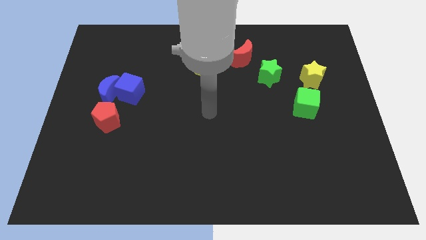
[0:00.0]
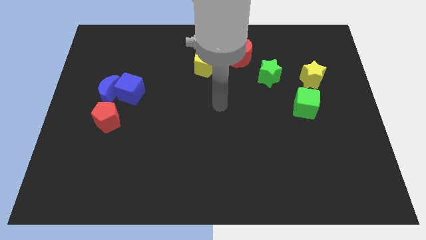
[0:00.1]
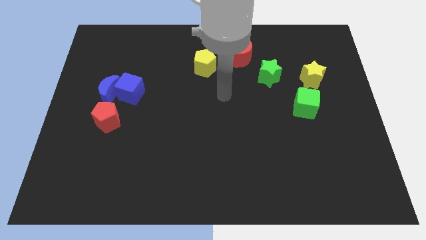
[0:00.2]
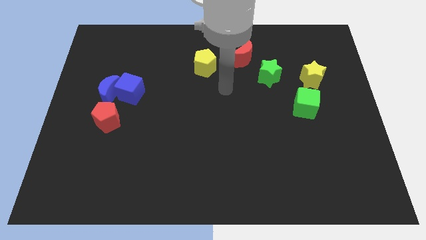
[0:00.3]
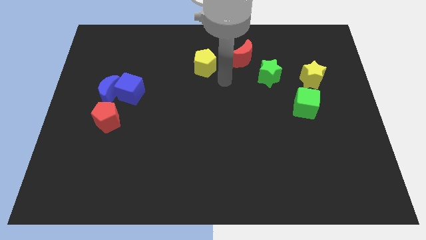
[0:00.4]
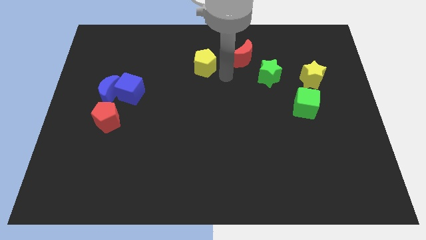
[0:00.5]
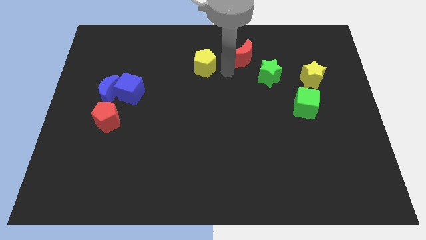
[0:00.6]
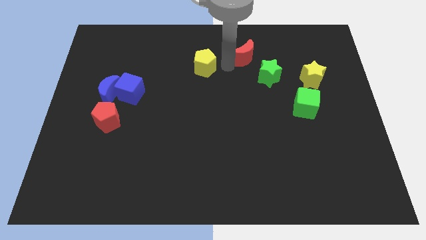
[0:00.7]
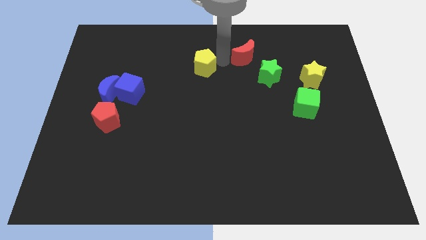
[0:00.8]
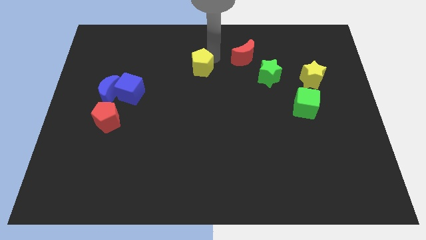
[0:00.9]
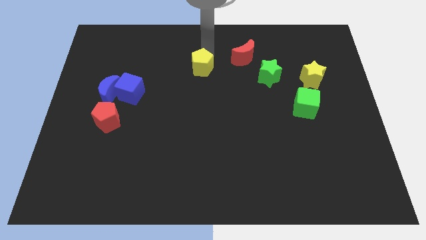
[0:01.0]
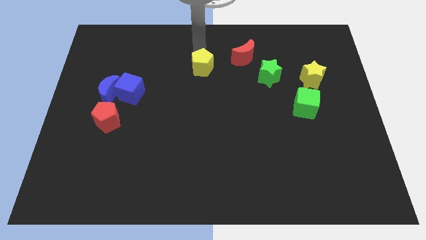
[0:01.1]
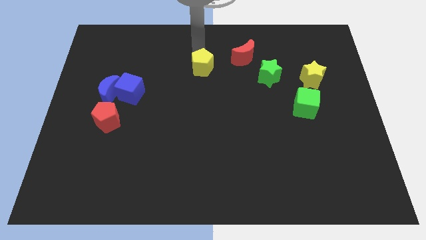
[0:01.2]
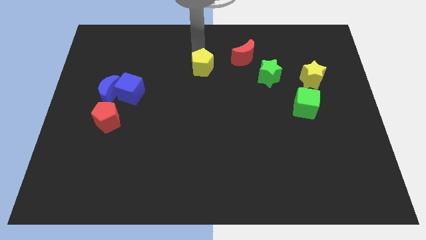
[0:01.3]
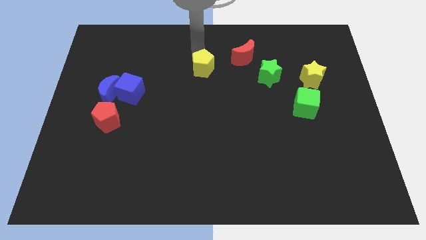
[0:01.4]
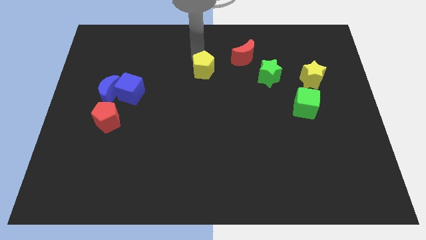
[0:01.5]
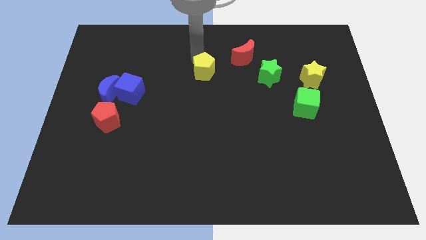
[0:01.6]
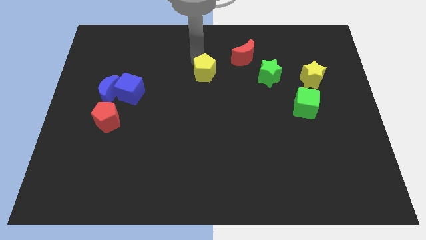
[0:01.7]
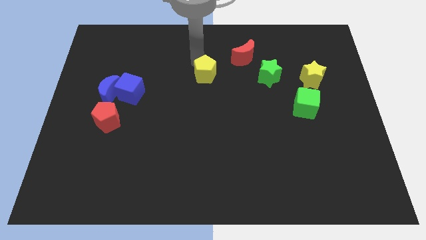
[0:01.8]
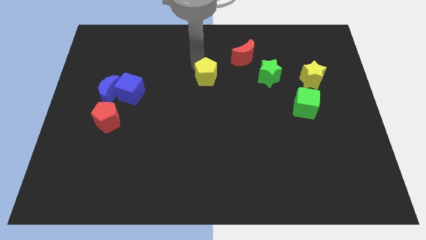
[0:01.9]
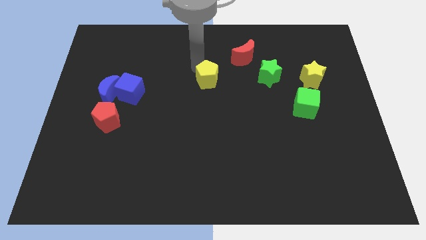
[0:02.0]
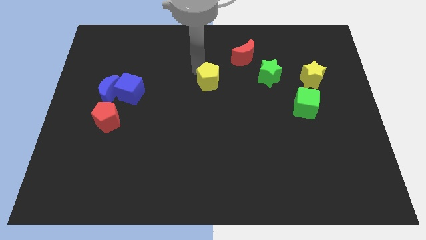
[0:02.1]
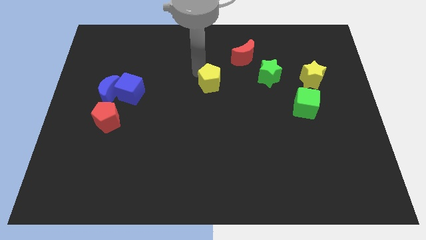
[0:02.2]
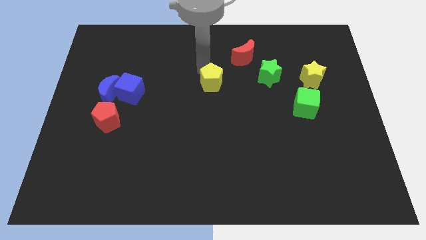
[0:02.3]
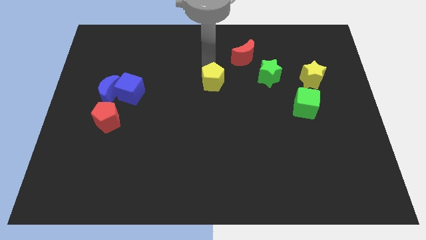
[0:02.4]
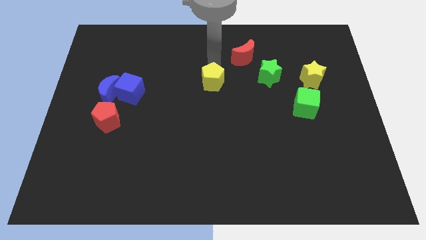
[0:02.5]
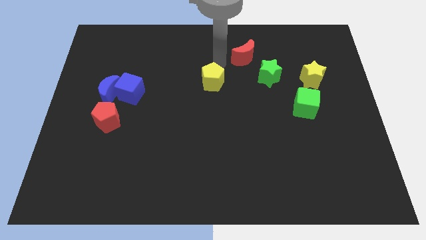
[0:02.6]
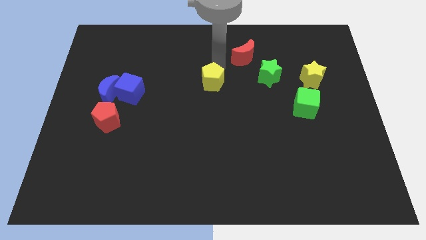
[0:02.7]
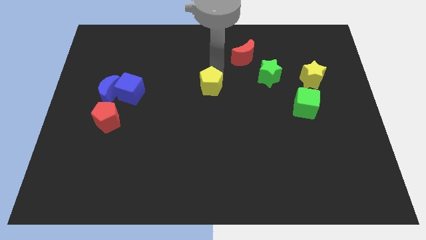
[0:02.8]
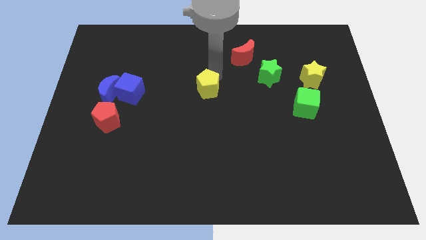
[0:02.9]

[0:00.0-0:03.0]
move the yellow pentagon downwards slightly

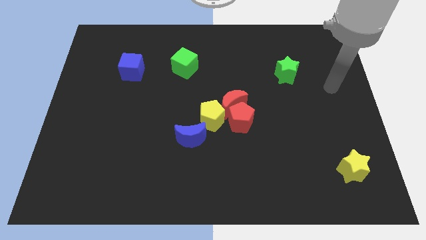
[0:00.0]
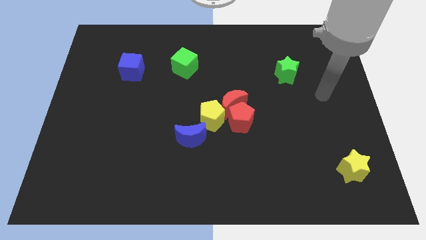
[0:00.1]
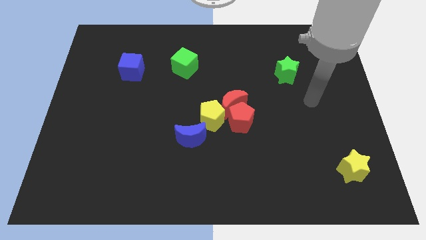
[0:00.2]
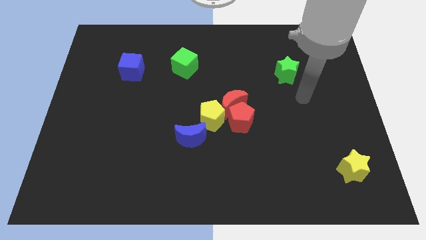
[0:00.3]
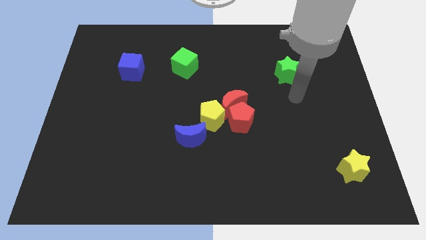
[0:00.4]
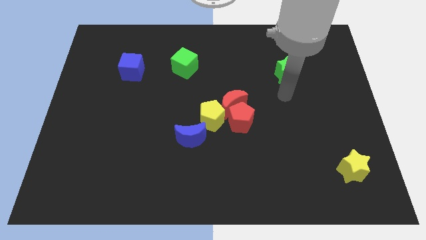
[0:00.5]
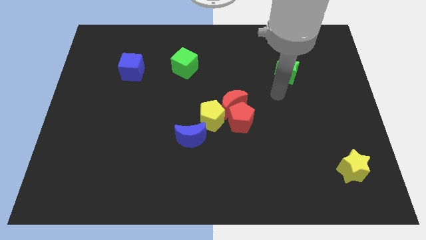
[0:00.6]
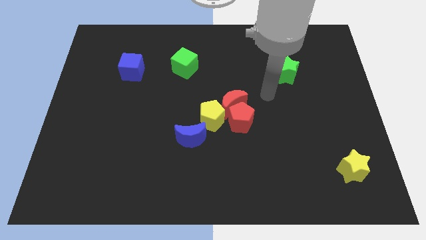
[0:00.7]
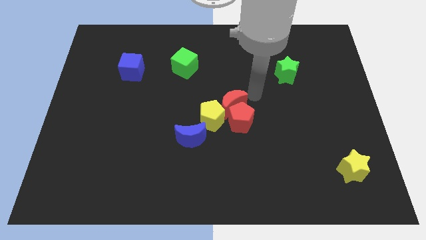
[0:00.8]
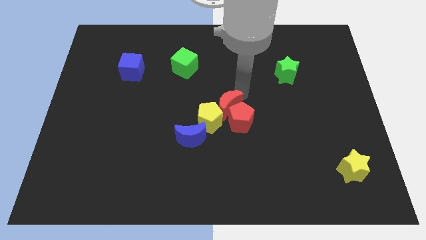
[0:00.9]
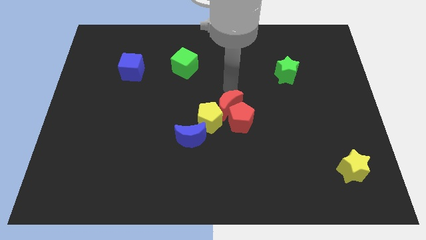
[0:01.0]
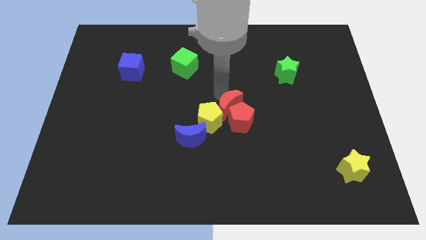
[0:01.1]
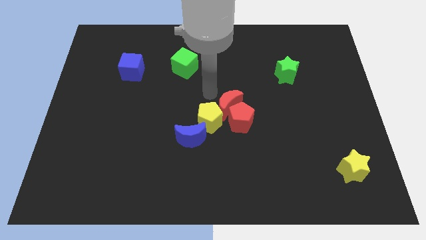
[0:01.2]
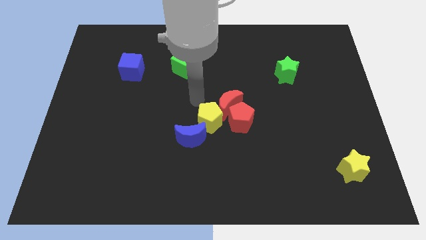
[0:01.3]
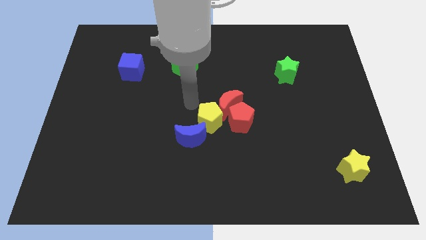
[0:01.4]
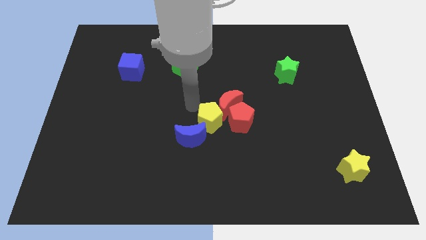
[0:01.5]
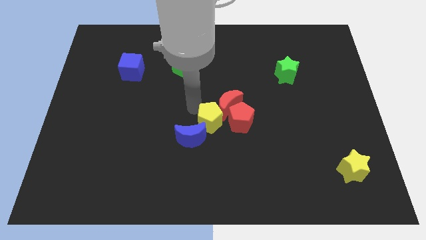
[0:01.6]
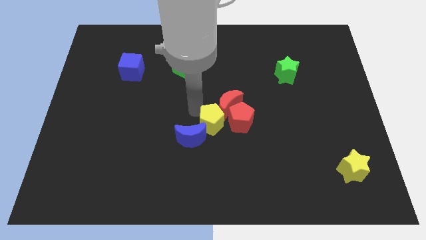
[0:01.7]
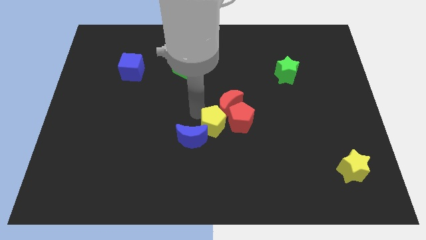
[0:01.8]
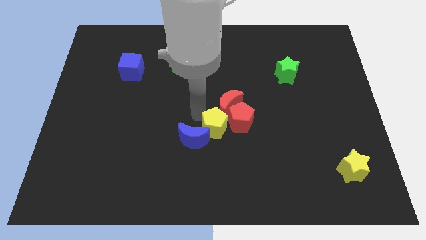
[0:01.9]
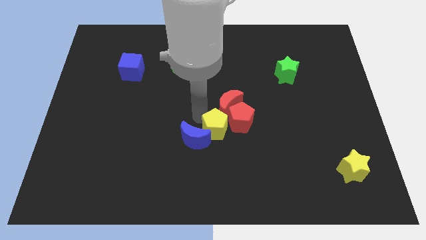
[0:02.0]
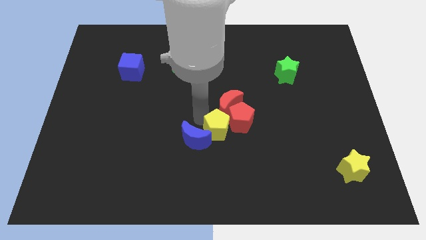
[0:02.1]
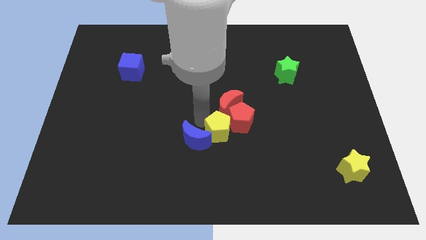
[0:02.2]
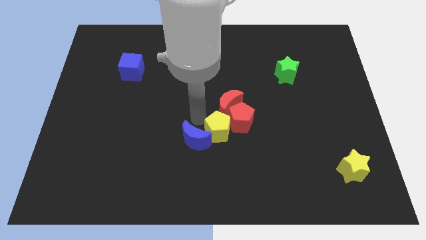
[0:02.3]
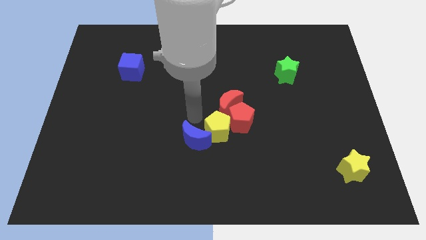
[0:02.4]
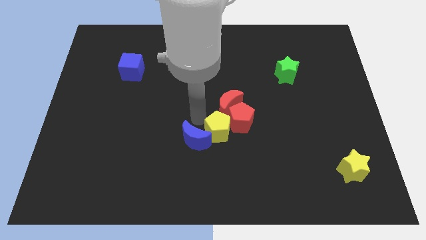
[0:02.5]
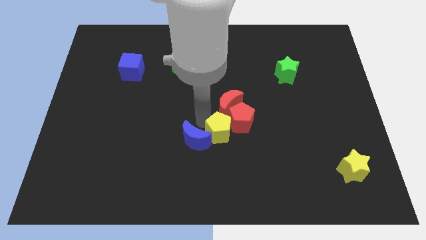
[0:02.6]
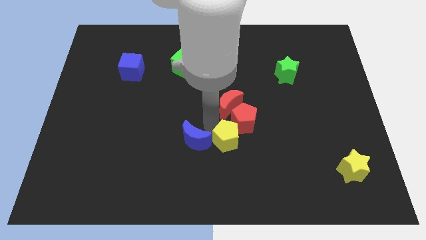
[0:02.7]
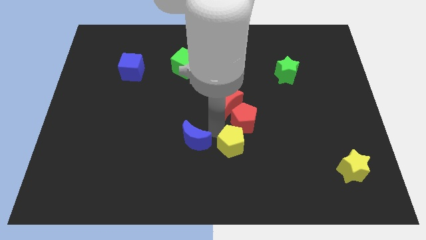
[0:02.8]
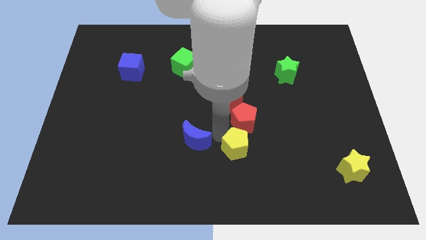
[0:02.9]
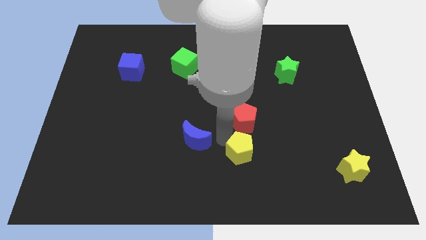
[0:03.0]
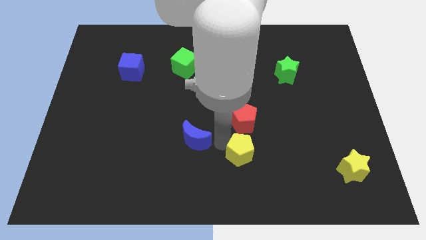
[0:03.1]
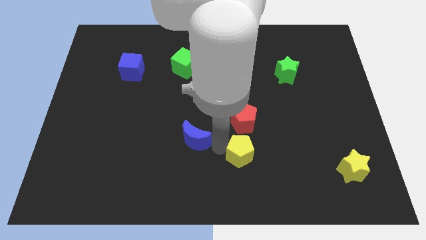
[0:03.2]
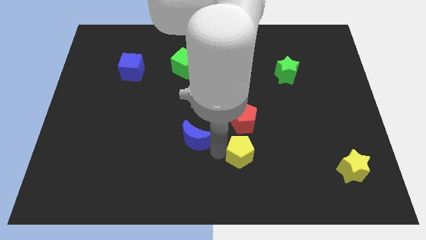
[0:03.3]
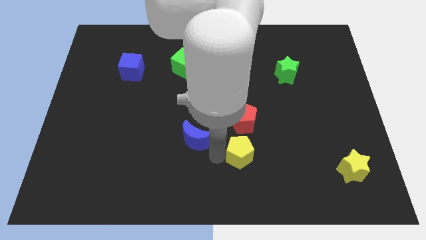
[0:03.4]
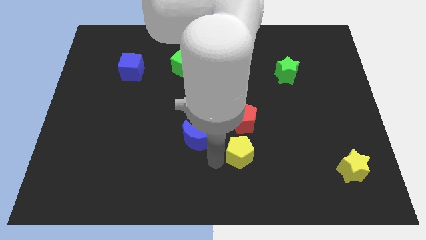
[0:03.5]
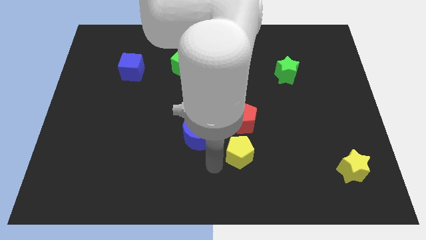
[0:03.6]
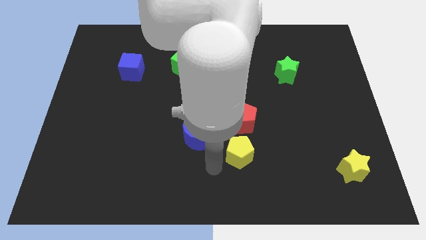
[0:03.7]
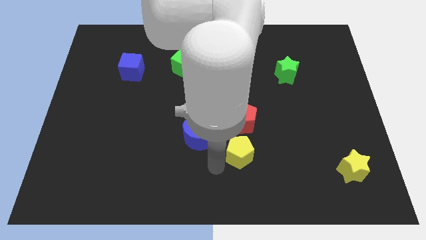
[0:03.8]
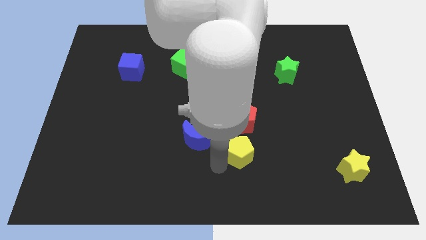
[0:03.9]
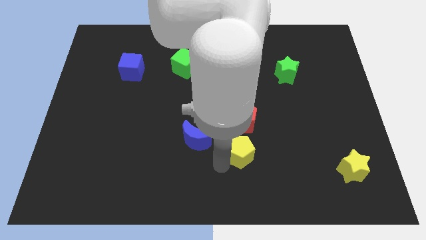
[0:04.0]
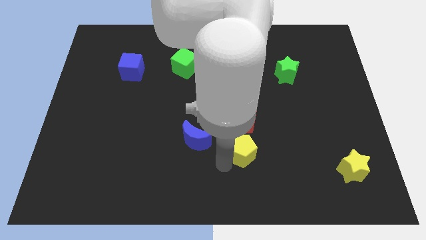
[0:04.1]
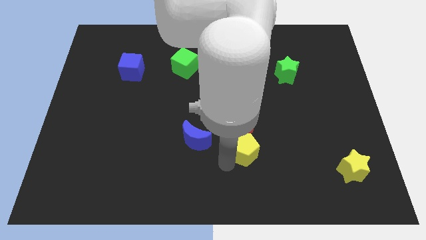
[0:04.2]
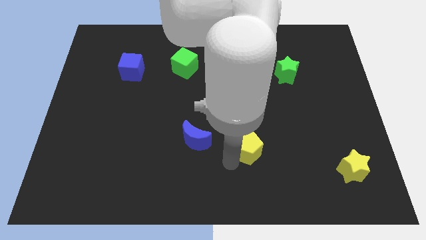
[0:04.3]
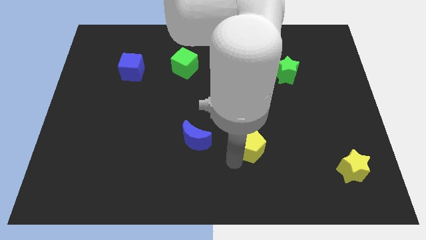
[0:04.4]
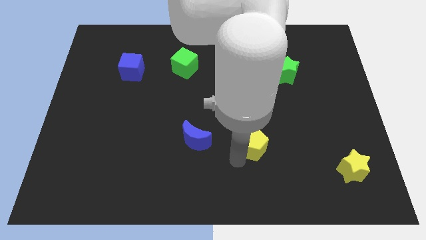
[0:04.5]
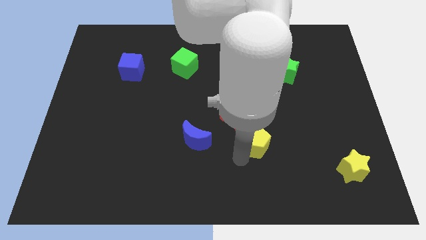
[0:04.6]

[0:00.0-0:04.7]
slide the yellow pentagon right slightly

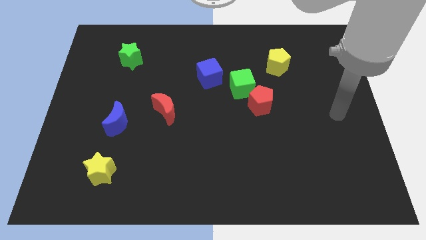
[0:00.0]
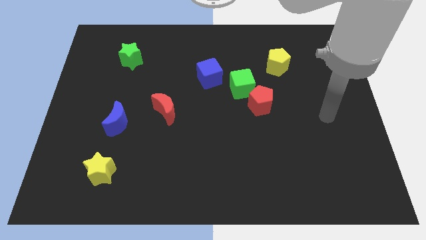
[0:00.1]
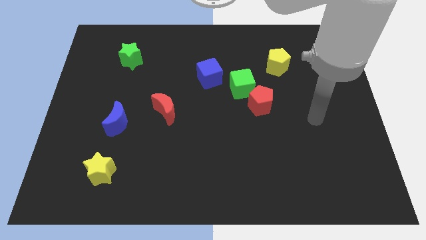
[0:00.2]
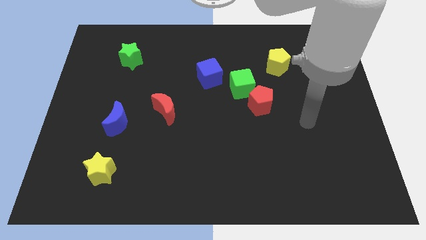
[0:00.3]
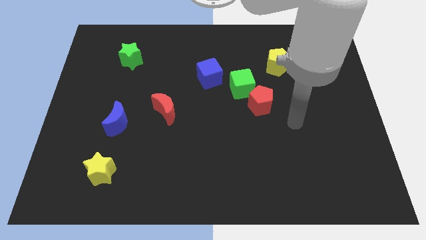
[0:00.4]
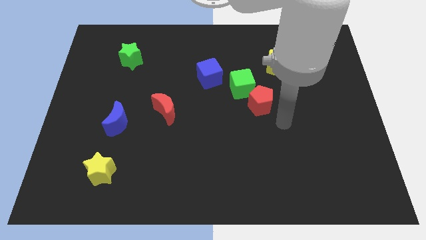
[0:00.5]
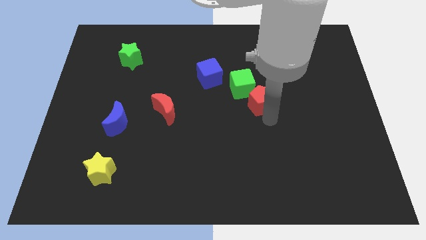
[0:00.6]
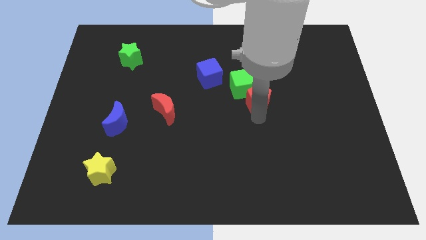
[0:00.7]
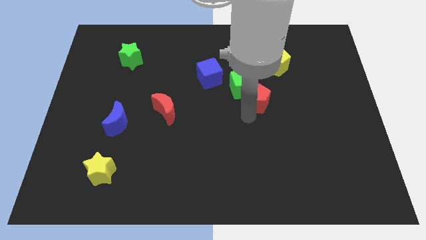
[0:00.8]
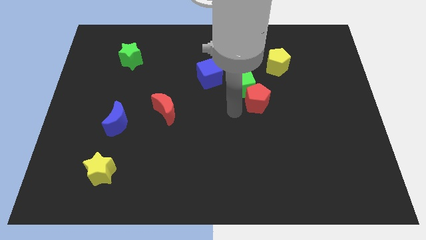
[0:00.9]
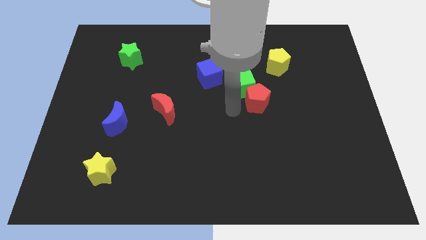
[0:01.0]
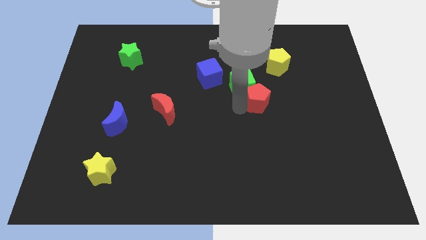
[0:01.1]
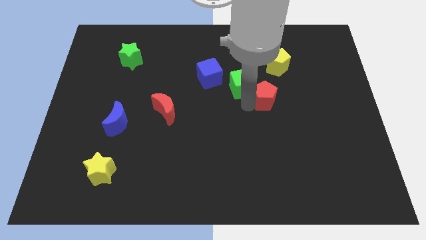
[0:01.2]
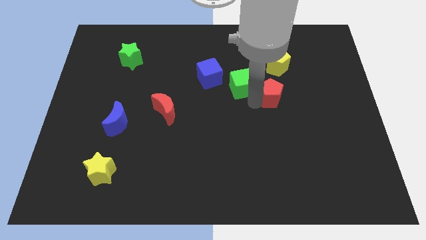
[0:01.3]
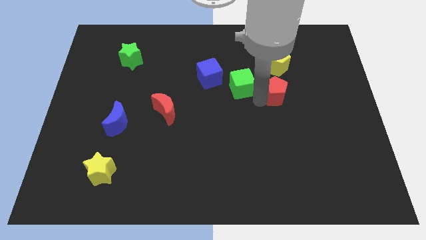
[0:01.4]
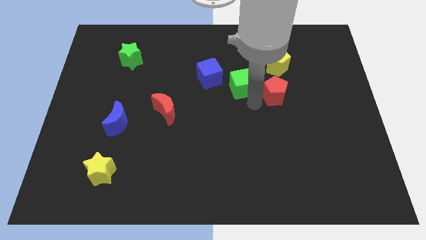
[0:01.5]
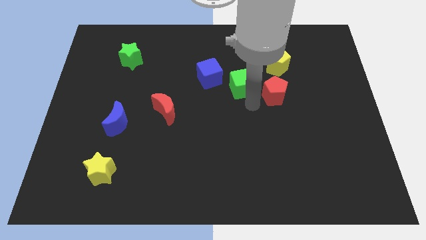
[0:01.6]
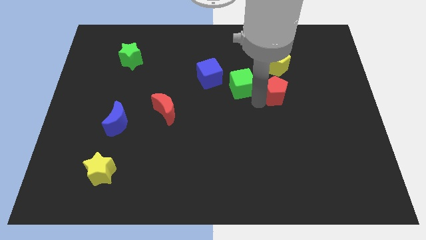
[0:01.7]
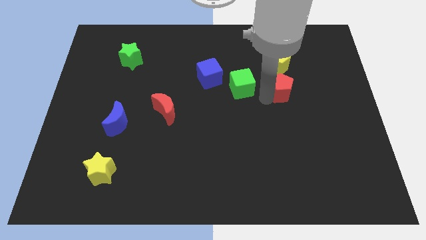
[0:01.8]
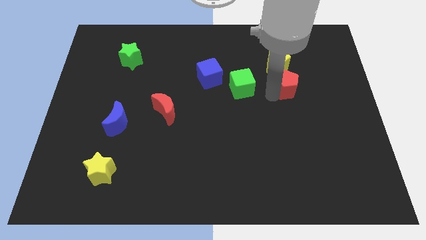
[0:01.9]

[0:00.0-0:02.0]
push the red pentagon diagonally upwards and to the right a bit
